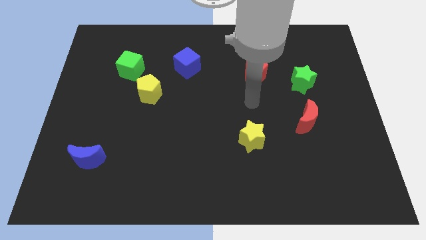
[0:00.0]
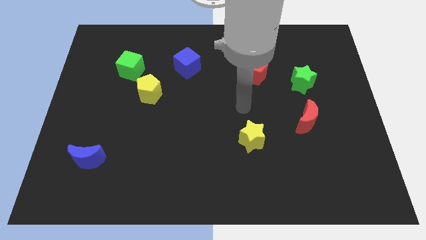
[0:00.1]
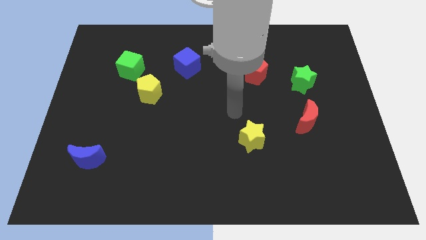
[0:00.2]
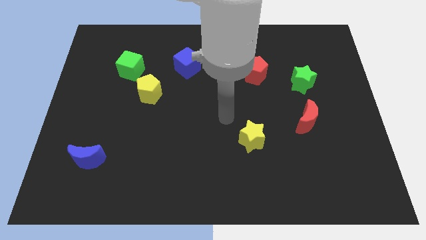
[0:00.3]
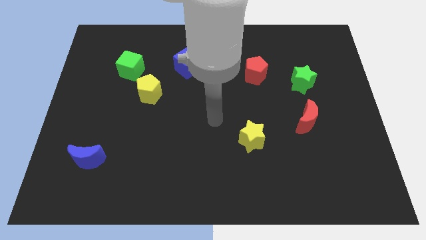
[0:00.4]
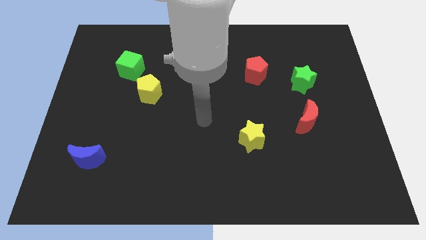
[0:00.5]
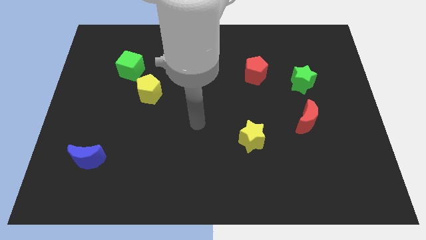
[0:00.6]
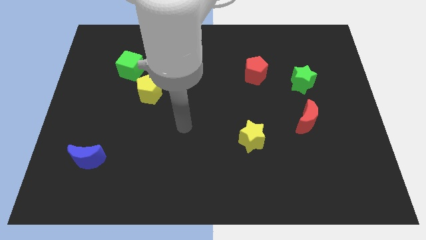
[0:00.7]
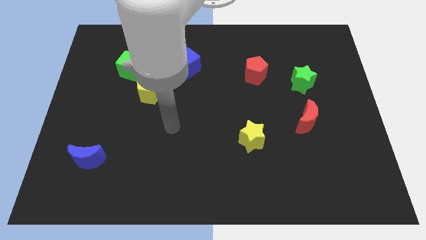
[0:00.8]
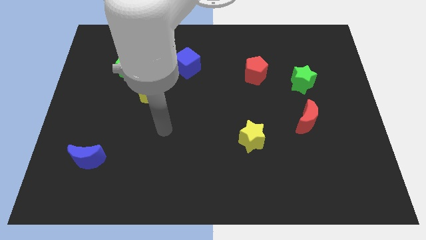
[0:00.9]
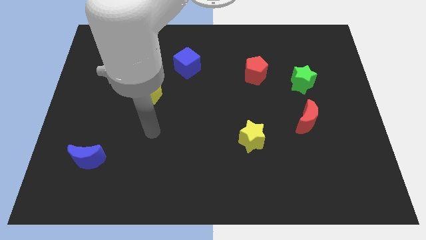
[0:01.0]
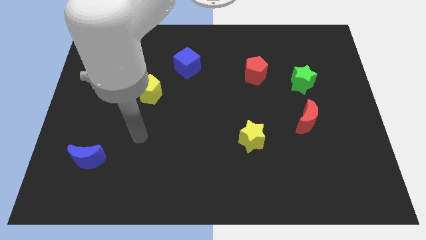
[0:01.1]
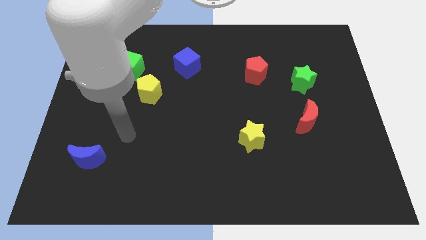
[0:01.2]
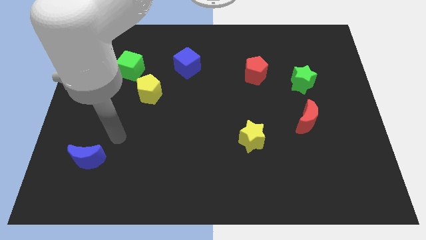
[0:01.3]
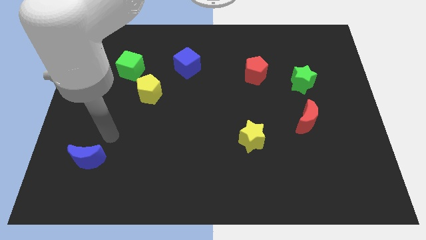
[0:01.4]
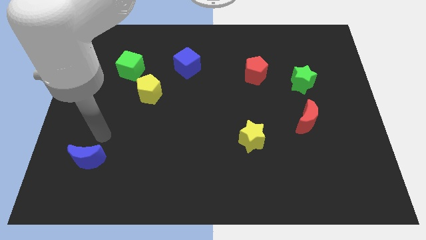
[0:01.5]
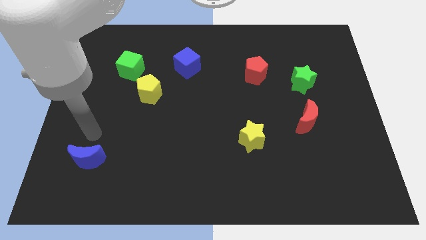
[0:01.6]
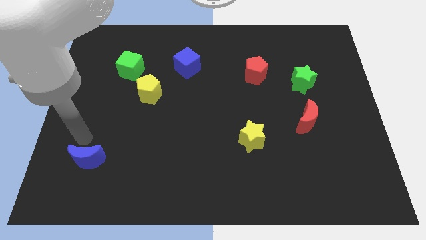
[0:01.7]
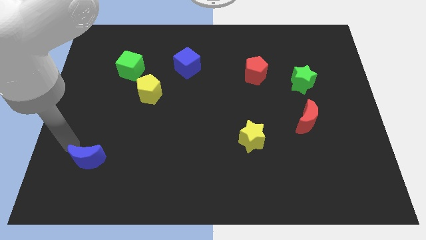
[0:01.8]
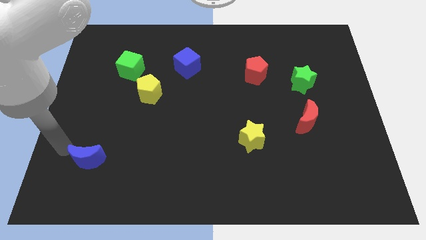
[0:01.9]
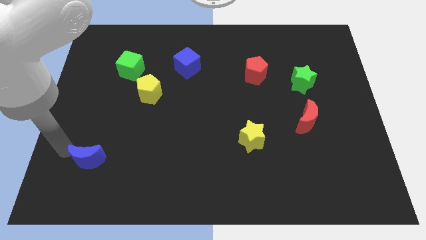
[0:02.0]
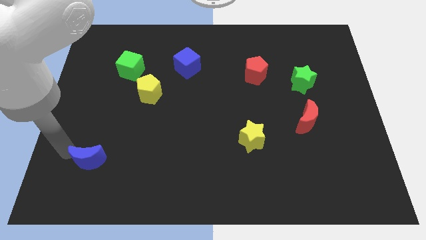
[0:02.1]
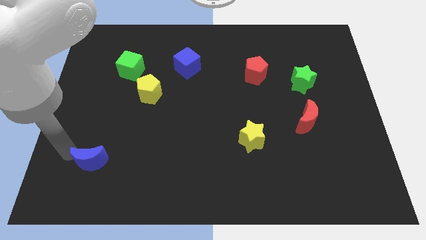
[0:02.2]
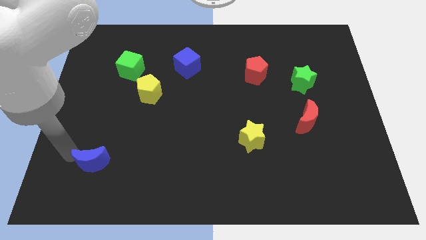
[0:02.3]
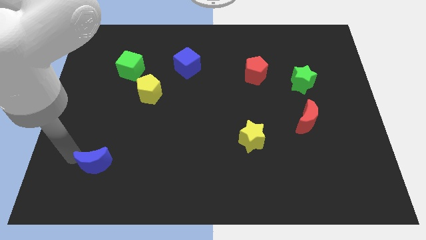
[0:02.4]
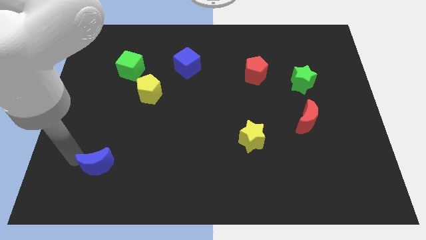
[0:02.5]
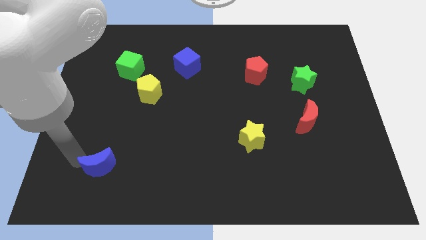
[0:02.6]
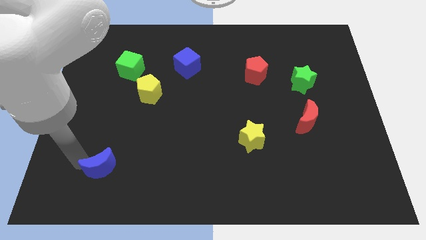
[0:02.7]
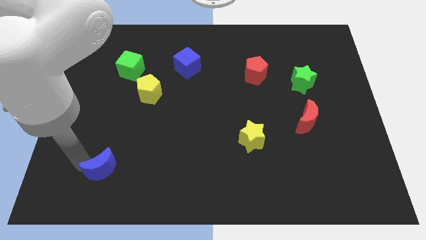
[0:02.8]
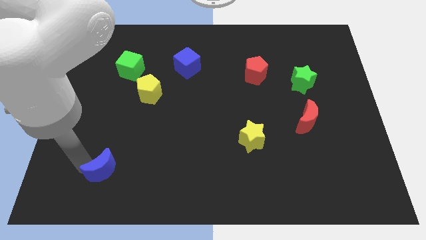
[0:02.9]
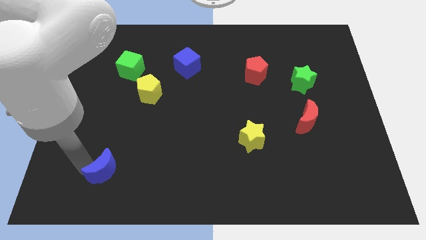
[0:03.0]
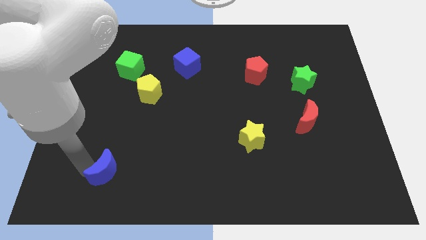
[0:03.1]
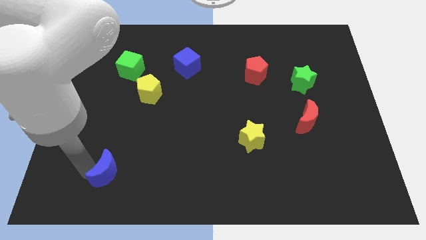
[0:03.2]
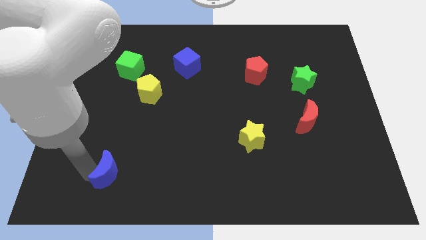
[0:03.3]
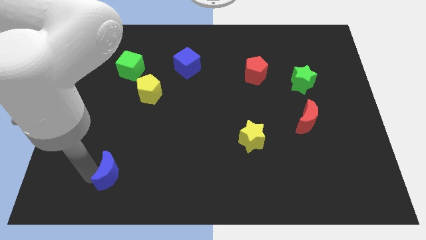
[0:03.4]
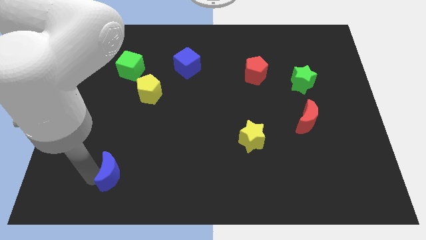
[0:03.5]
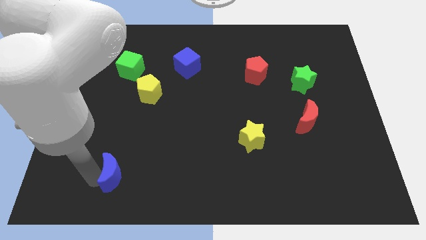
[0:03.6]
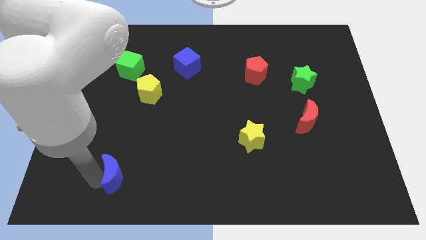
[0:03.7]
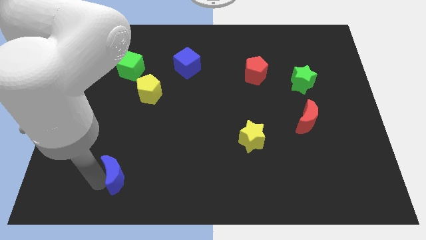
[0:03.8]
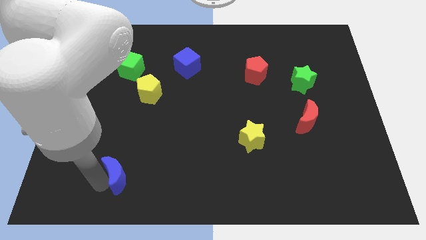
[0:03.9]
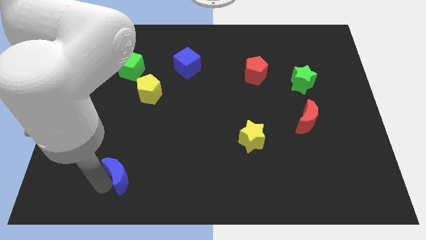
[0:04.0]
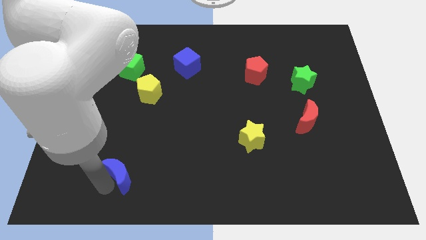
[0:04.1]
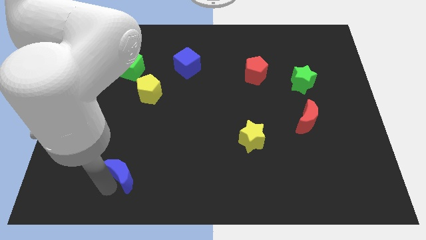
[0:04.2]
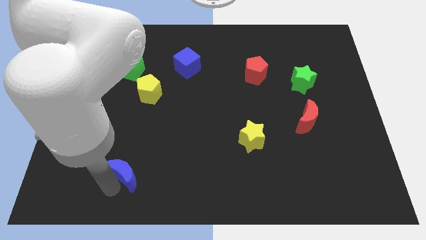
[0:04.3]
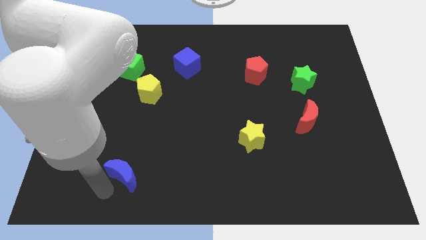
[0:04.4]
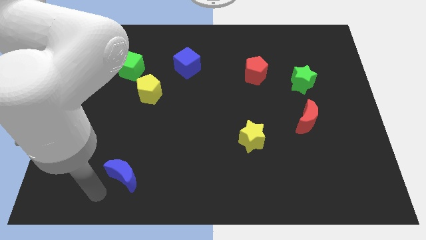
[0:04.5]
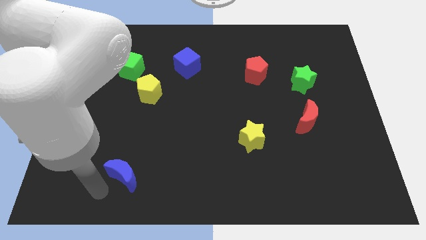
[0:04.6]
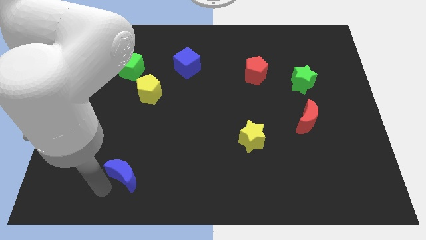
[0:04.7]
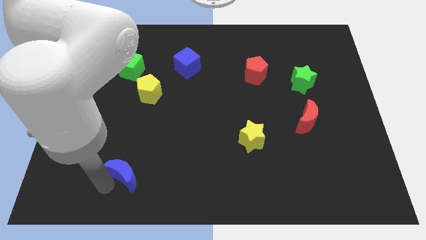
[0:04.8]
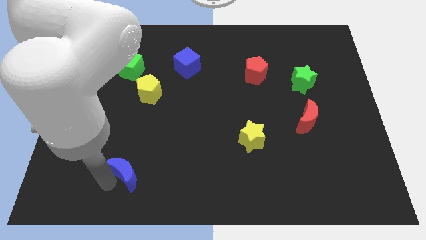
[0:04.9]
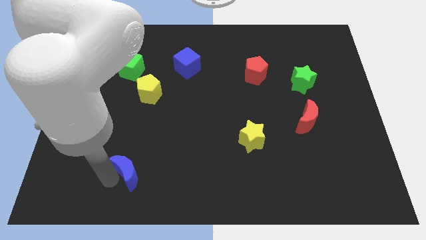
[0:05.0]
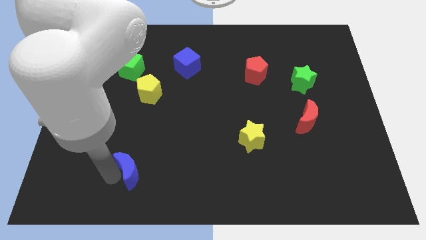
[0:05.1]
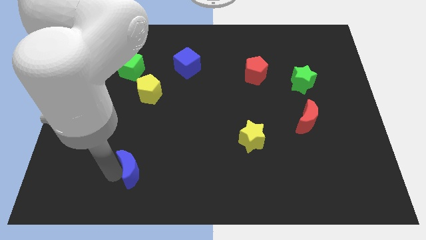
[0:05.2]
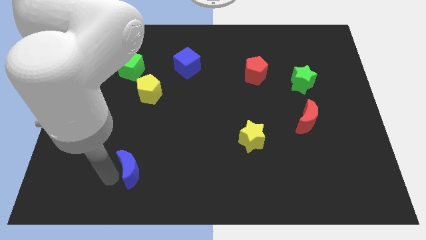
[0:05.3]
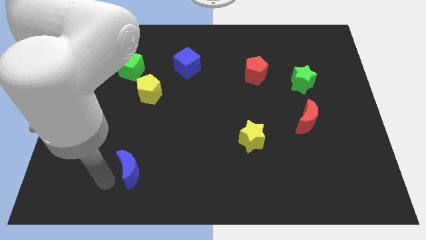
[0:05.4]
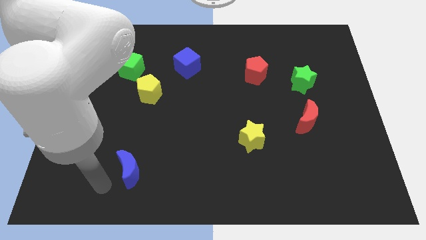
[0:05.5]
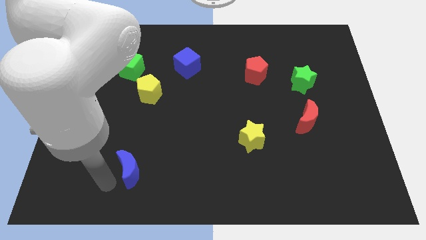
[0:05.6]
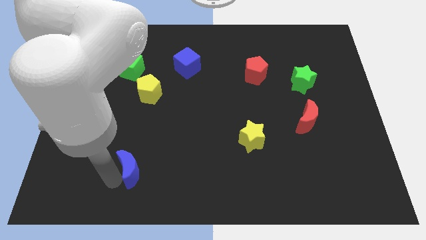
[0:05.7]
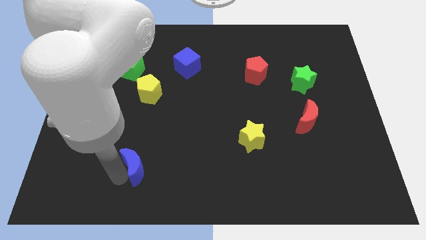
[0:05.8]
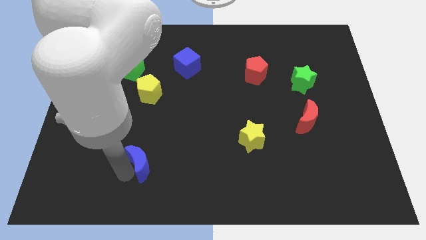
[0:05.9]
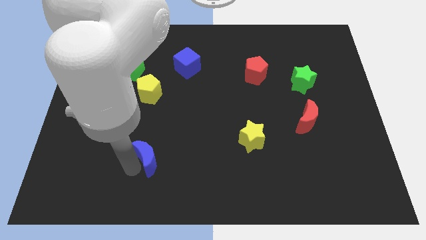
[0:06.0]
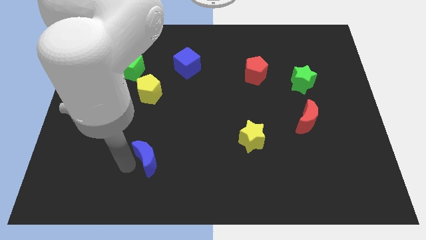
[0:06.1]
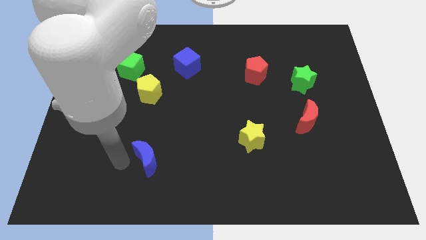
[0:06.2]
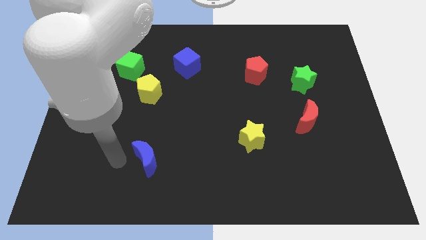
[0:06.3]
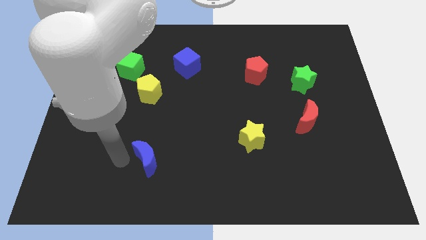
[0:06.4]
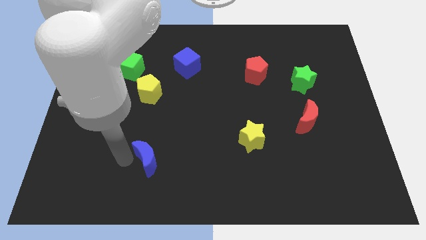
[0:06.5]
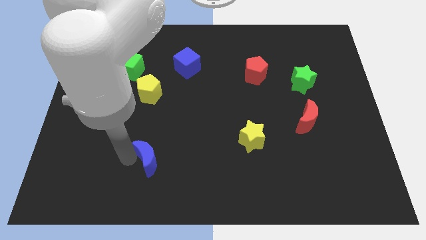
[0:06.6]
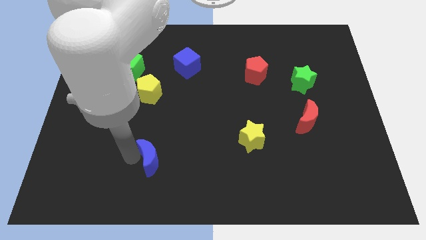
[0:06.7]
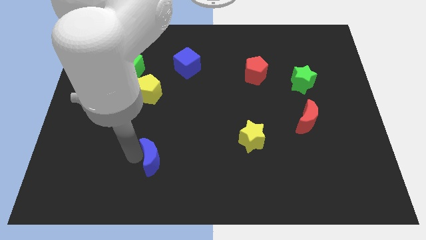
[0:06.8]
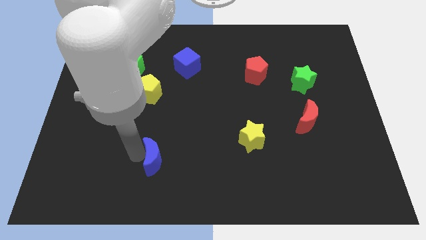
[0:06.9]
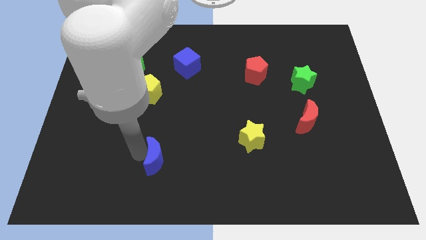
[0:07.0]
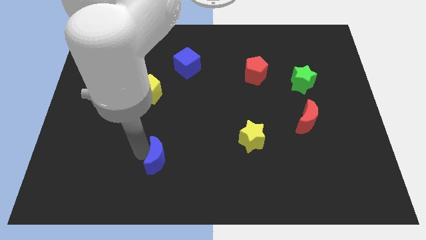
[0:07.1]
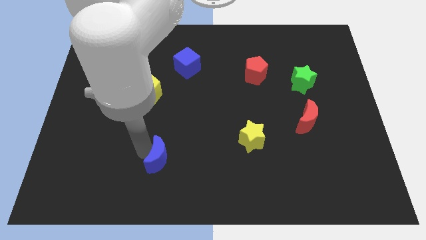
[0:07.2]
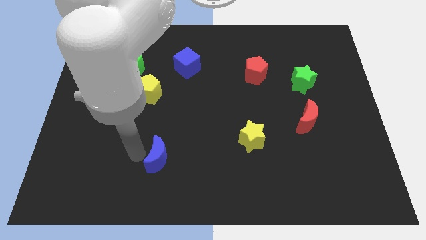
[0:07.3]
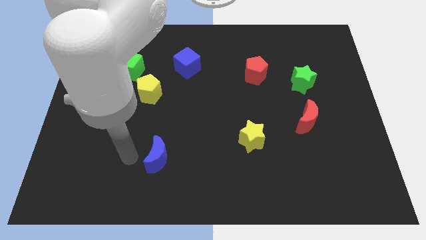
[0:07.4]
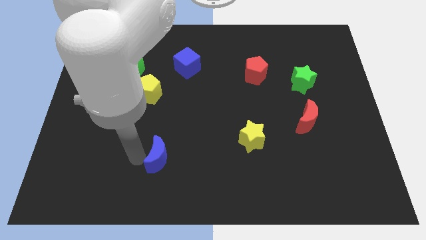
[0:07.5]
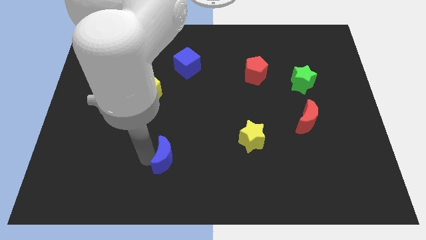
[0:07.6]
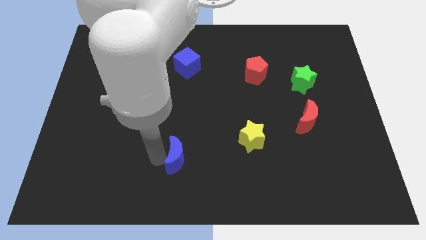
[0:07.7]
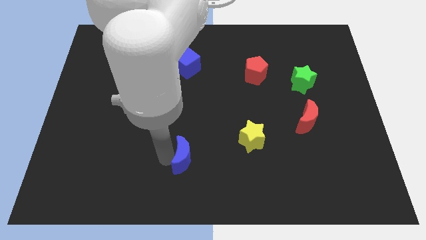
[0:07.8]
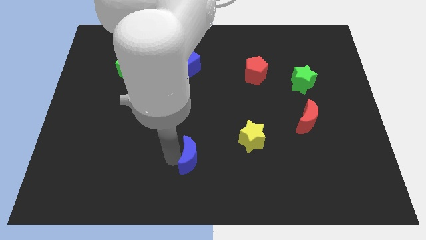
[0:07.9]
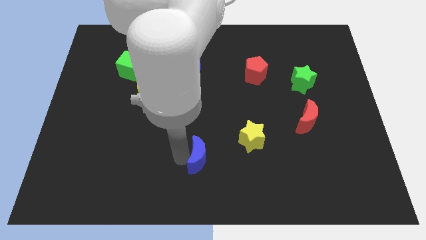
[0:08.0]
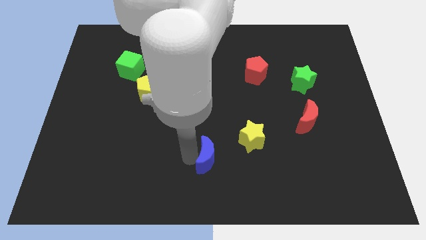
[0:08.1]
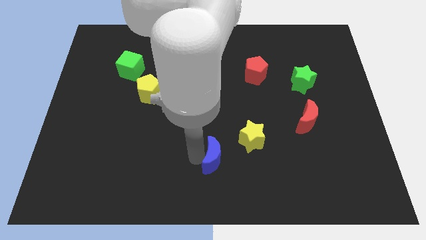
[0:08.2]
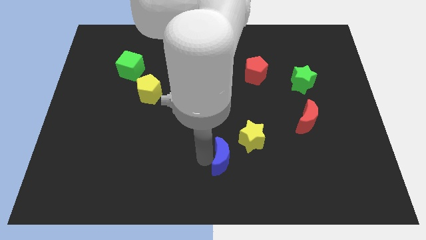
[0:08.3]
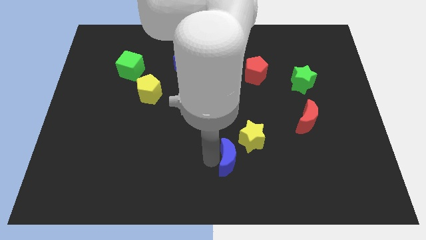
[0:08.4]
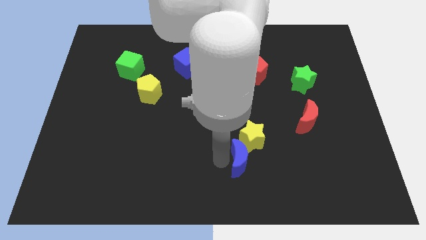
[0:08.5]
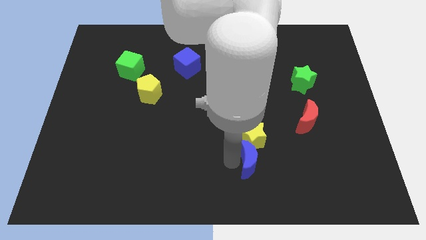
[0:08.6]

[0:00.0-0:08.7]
put the blue moon to the bottom right side of the yellow star
